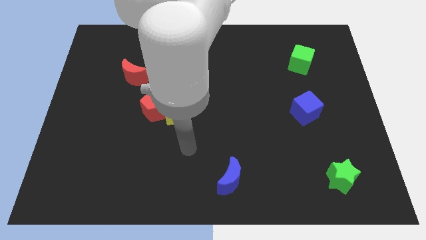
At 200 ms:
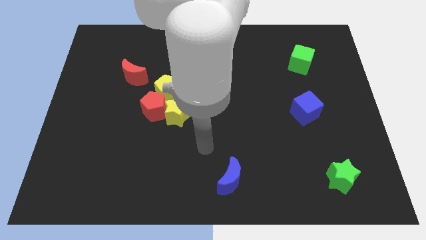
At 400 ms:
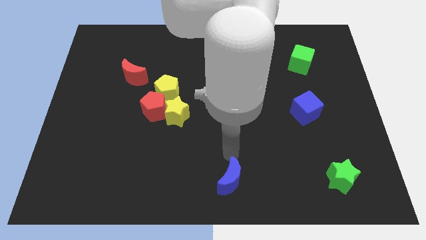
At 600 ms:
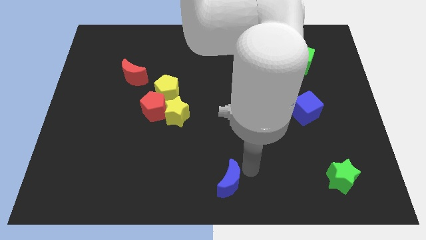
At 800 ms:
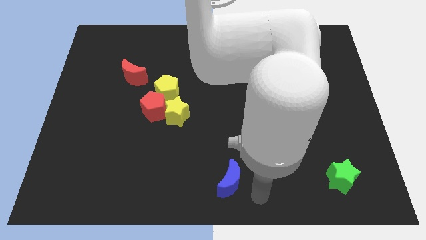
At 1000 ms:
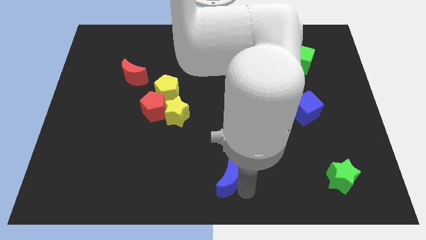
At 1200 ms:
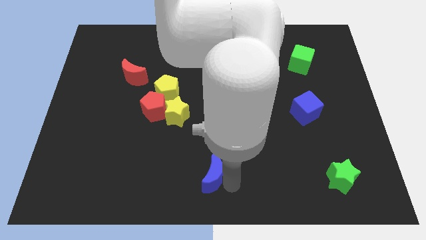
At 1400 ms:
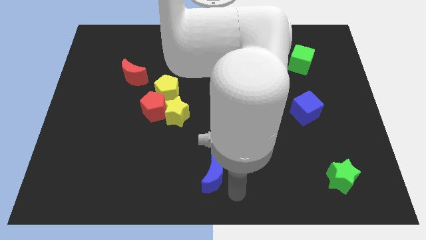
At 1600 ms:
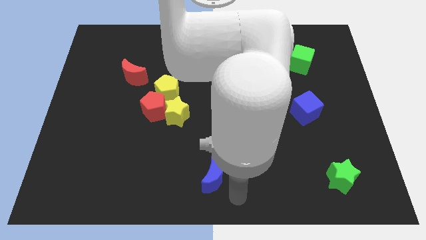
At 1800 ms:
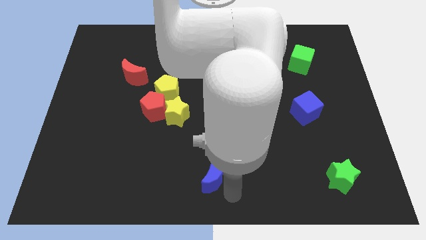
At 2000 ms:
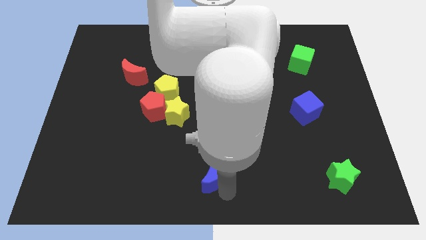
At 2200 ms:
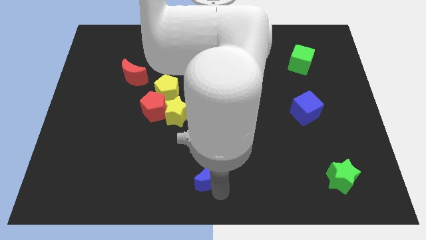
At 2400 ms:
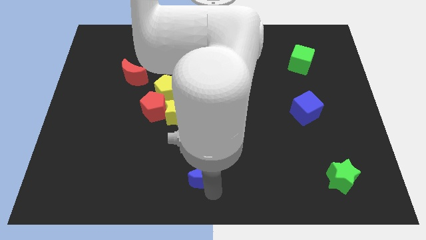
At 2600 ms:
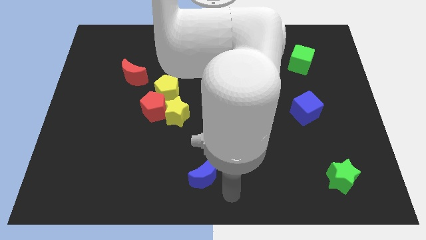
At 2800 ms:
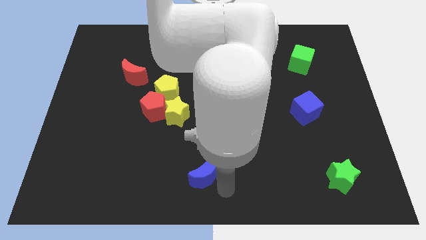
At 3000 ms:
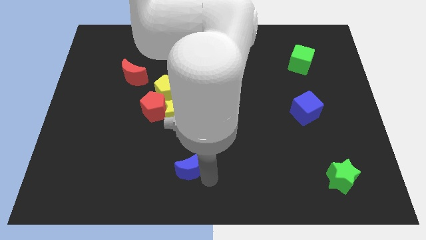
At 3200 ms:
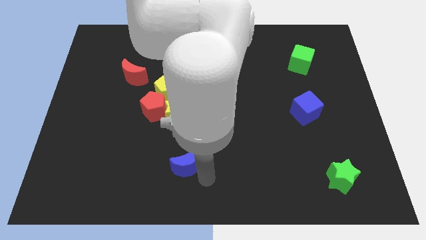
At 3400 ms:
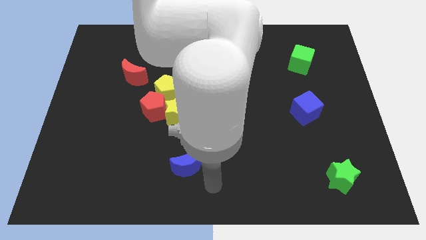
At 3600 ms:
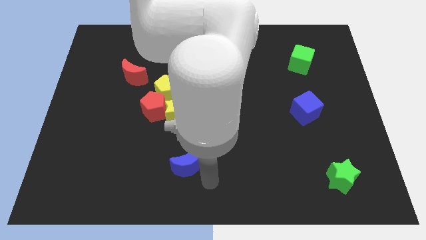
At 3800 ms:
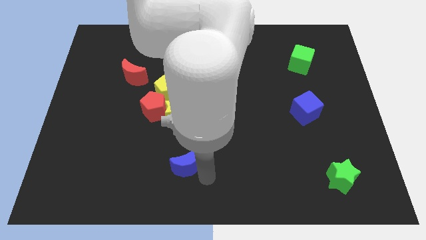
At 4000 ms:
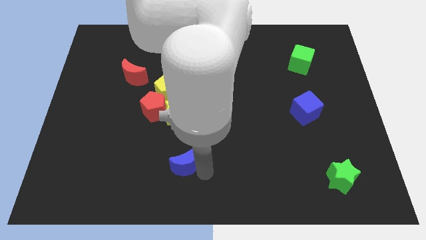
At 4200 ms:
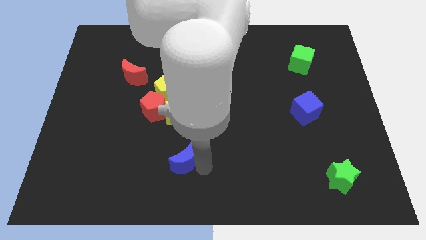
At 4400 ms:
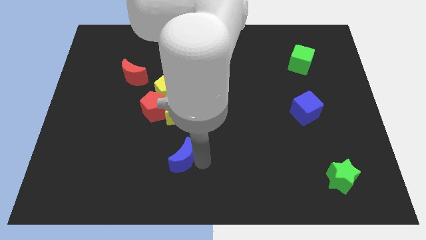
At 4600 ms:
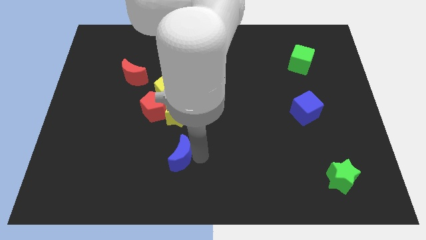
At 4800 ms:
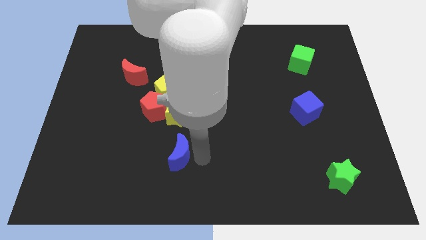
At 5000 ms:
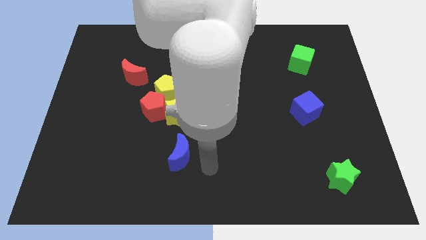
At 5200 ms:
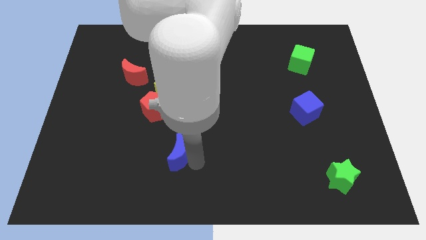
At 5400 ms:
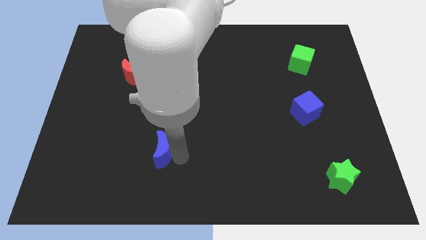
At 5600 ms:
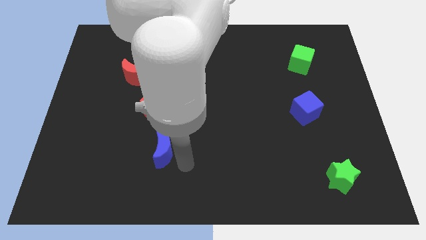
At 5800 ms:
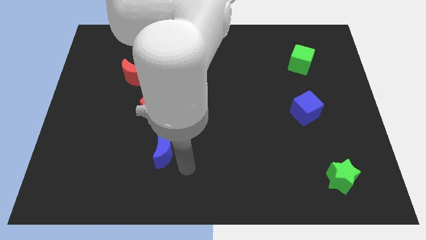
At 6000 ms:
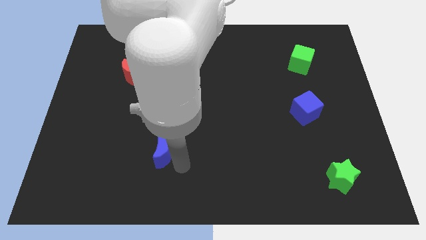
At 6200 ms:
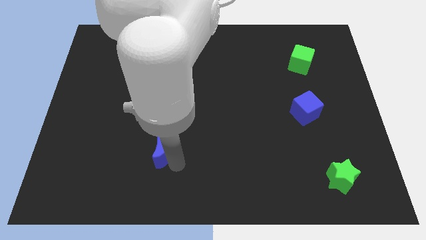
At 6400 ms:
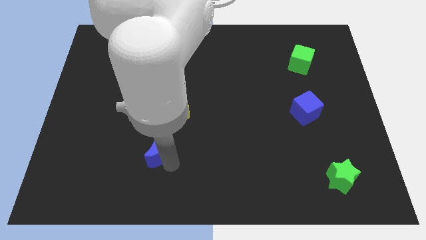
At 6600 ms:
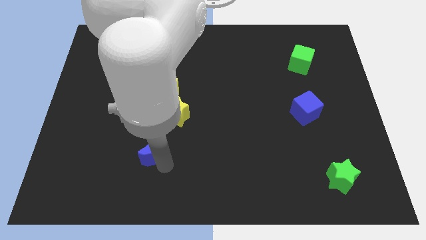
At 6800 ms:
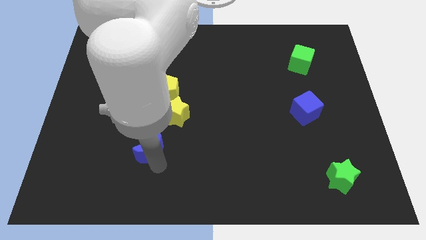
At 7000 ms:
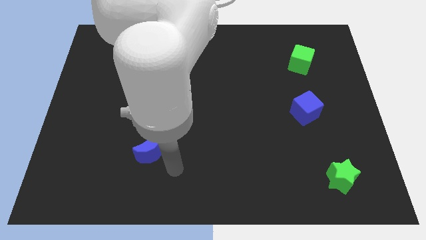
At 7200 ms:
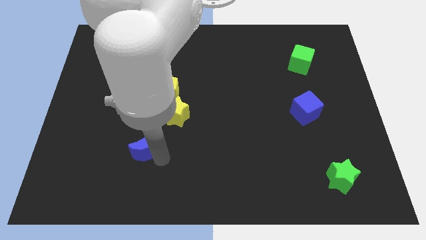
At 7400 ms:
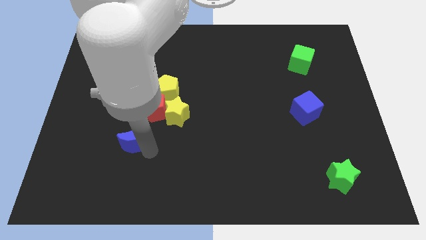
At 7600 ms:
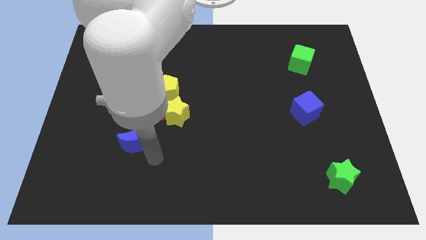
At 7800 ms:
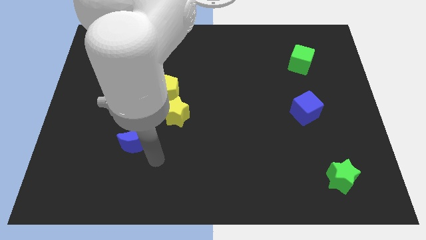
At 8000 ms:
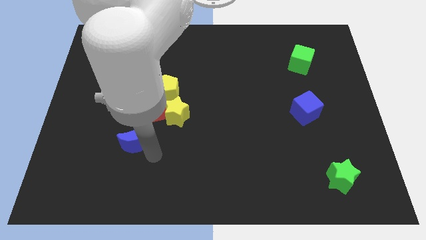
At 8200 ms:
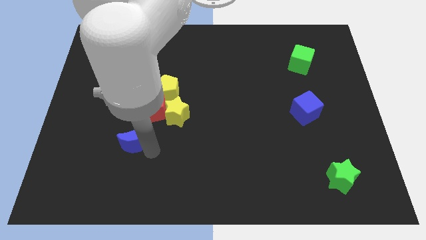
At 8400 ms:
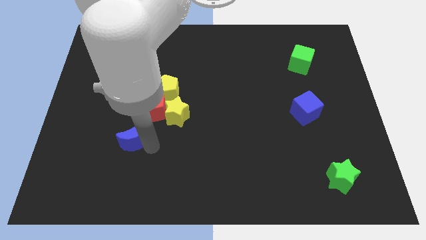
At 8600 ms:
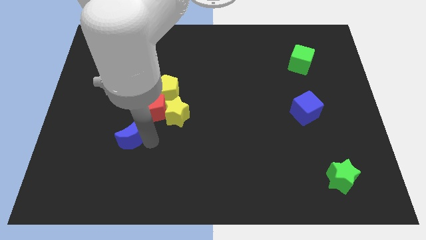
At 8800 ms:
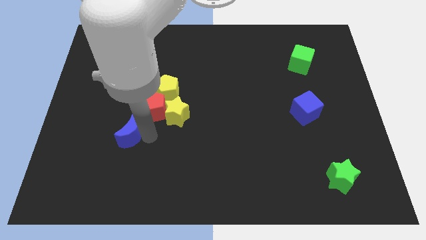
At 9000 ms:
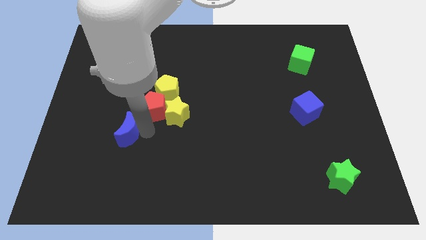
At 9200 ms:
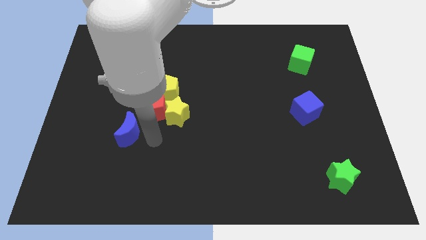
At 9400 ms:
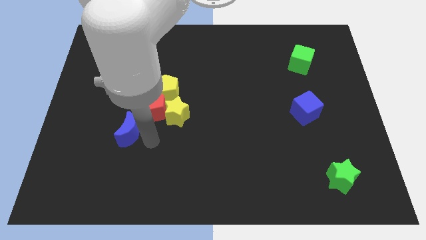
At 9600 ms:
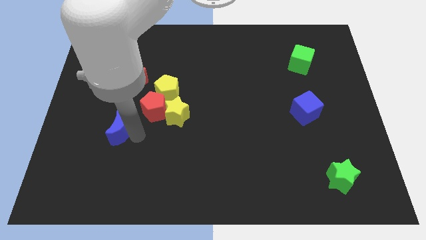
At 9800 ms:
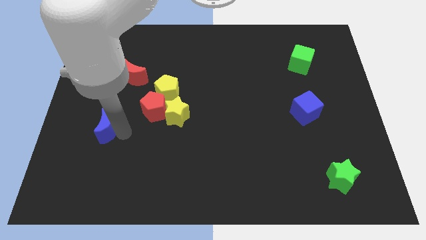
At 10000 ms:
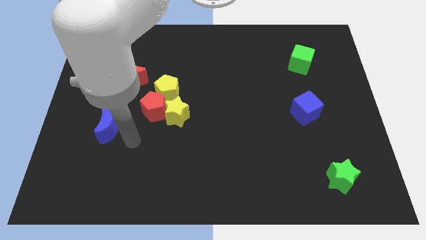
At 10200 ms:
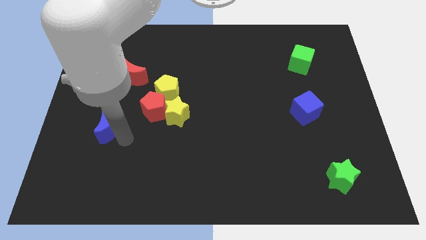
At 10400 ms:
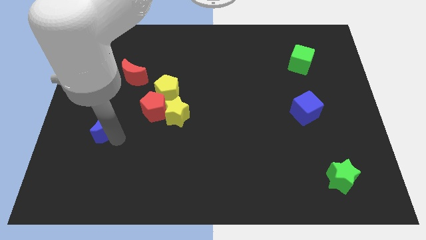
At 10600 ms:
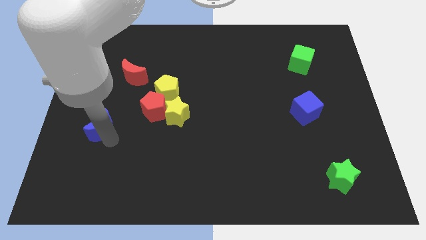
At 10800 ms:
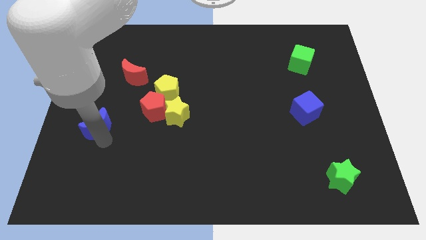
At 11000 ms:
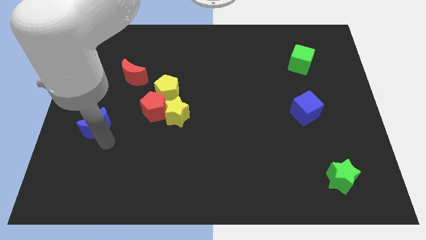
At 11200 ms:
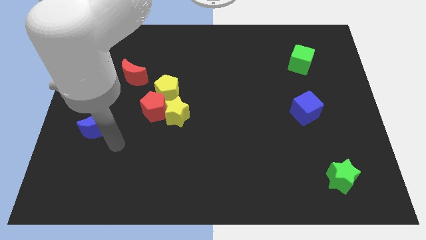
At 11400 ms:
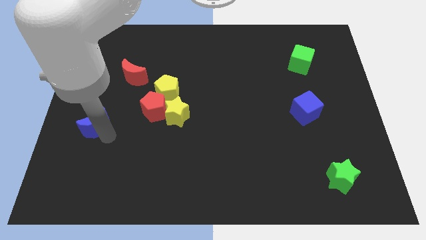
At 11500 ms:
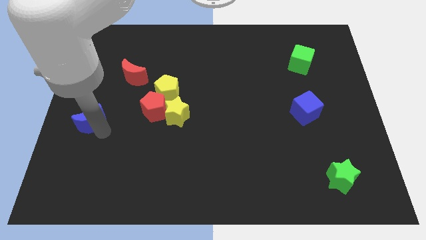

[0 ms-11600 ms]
slide the blue moon to the center left

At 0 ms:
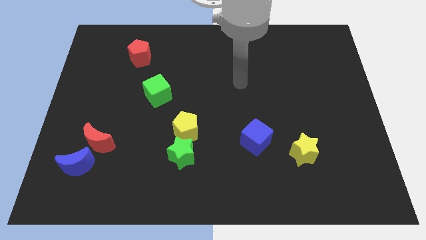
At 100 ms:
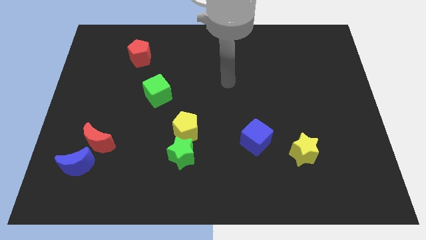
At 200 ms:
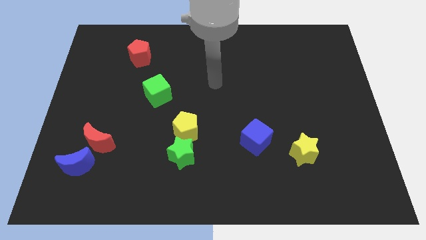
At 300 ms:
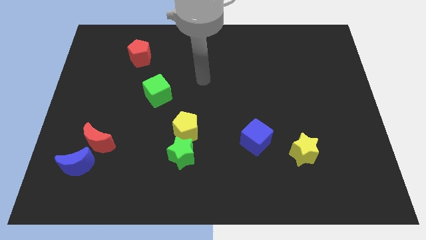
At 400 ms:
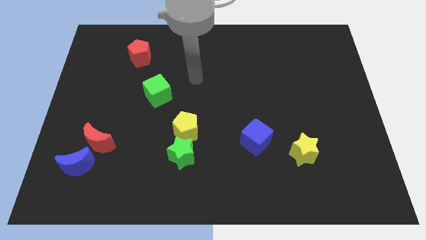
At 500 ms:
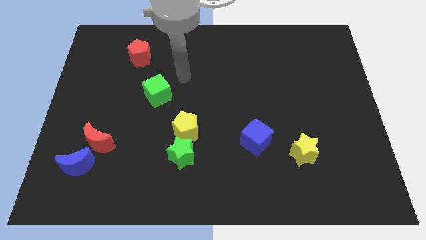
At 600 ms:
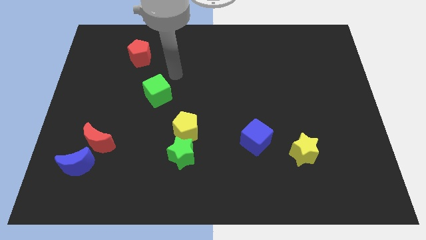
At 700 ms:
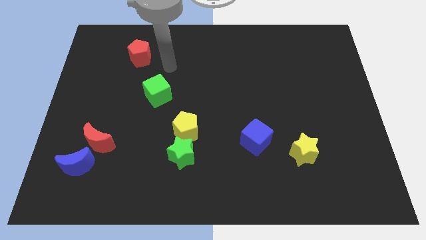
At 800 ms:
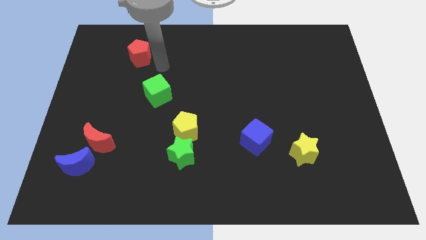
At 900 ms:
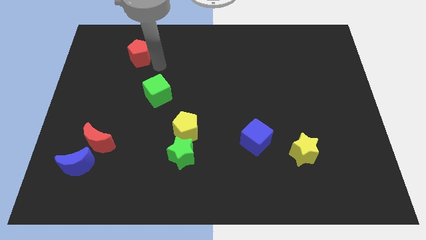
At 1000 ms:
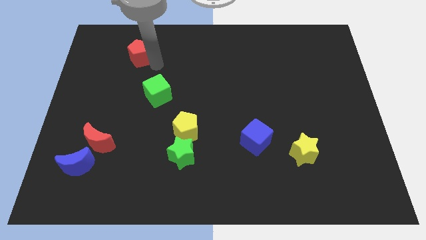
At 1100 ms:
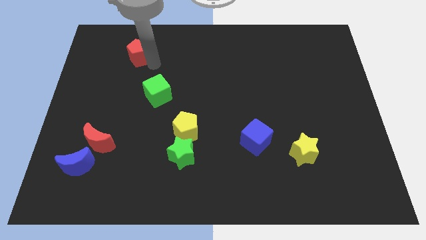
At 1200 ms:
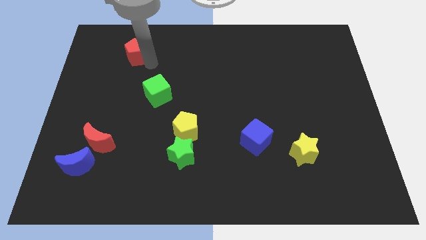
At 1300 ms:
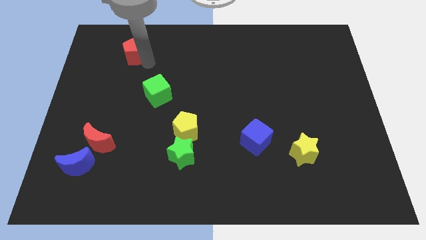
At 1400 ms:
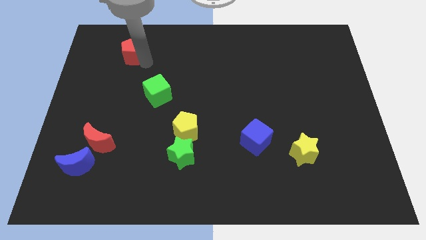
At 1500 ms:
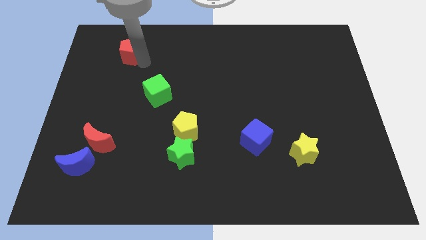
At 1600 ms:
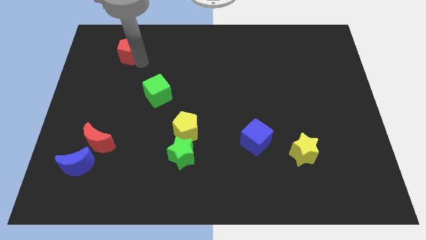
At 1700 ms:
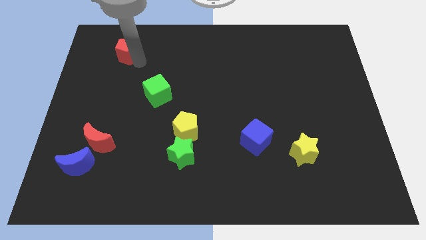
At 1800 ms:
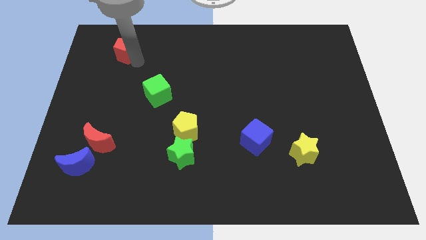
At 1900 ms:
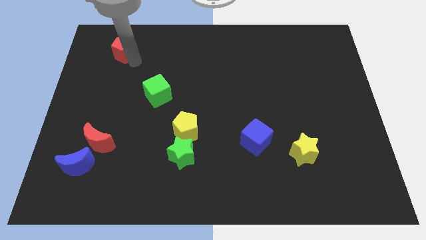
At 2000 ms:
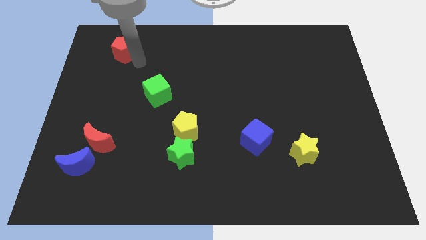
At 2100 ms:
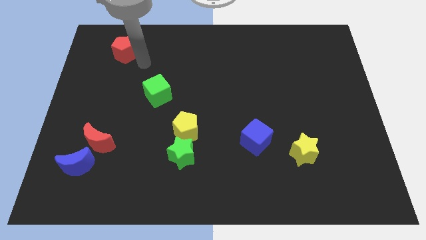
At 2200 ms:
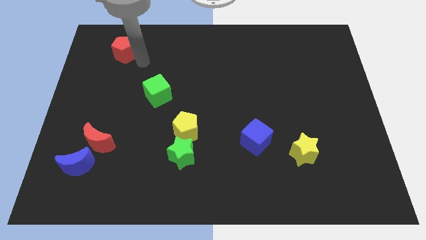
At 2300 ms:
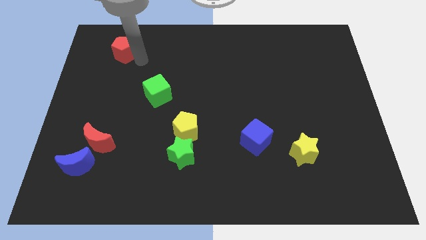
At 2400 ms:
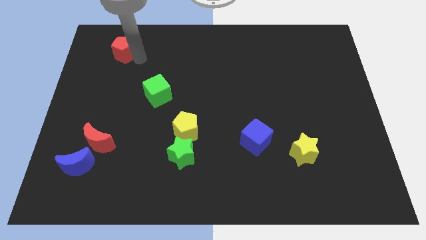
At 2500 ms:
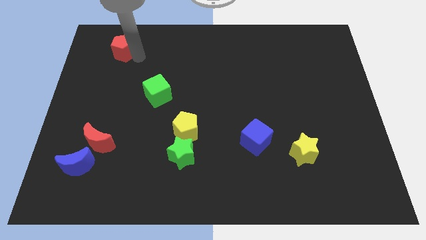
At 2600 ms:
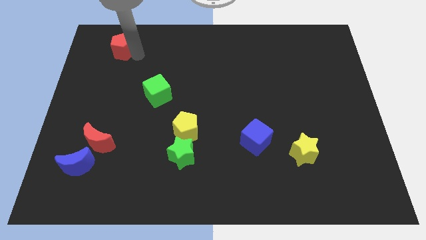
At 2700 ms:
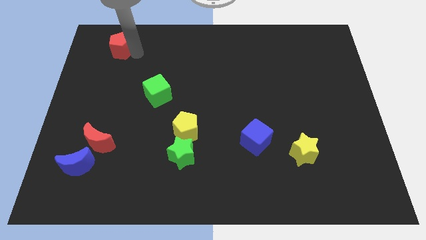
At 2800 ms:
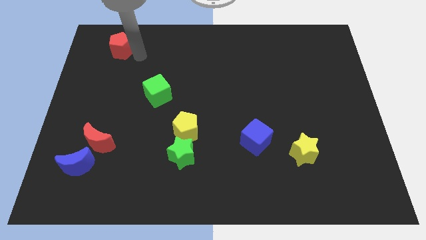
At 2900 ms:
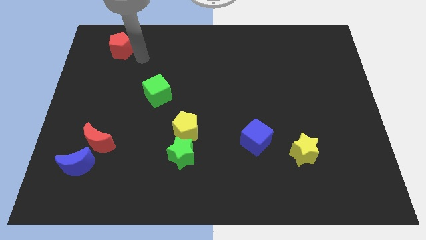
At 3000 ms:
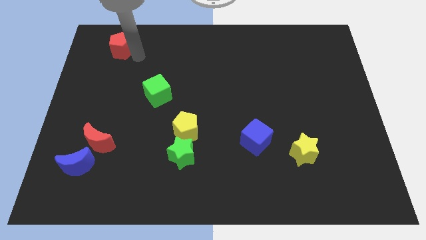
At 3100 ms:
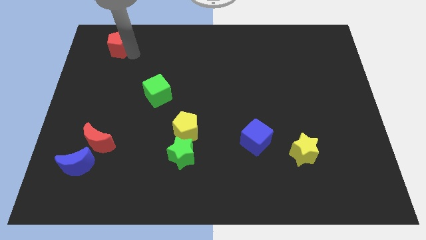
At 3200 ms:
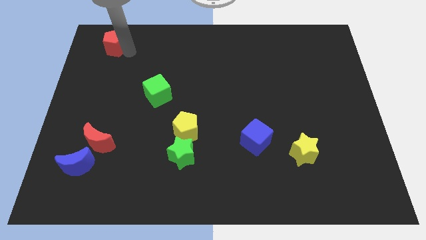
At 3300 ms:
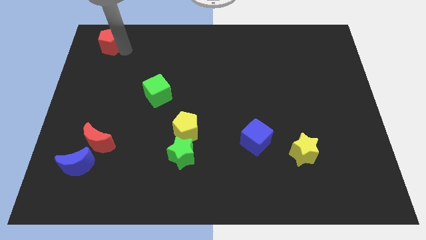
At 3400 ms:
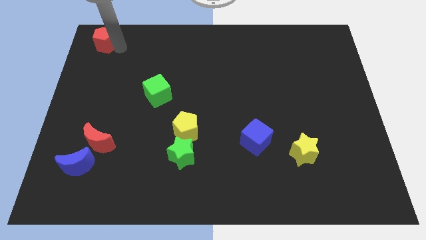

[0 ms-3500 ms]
push the red pentagon to the upper left corner
